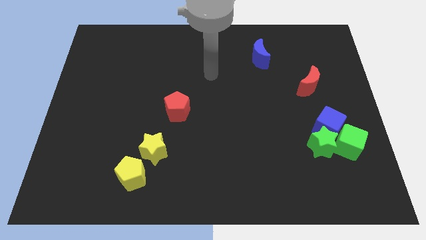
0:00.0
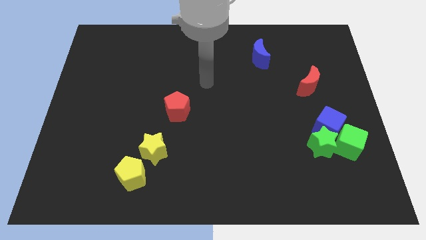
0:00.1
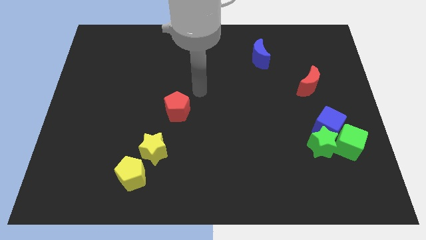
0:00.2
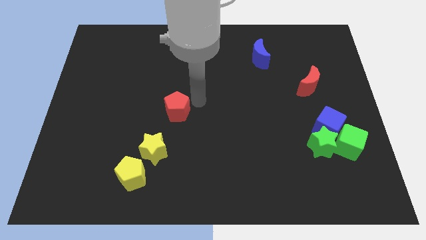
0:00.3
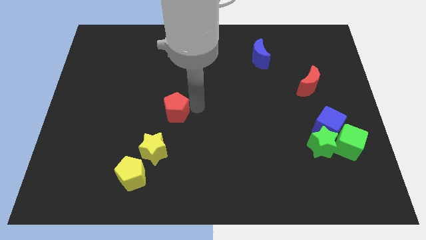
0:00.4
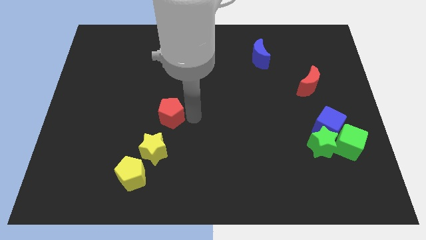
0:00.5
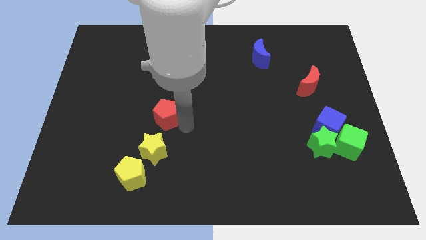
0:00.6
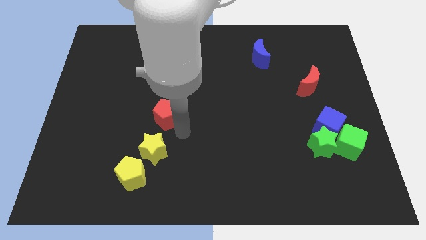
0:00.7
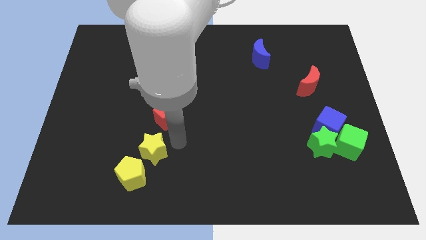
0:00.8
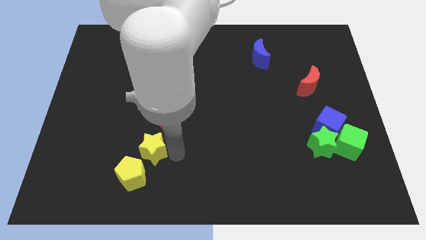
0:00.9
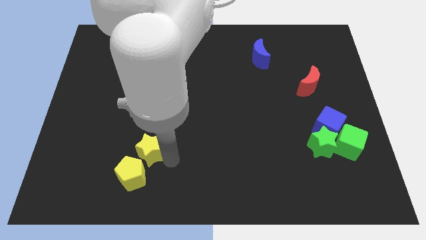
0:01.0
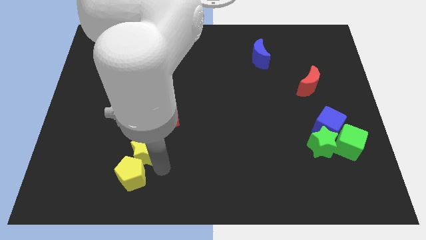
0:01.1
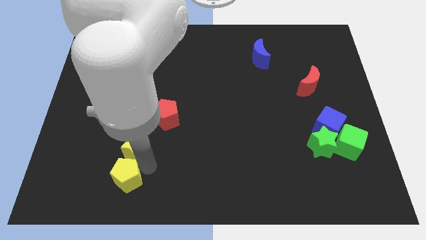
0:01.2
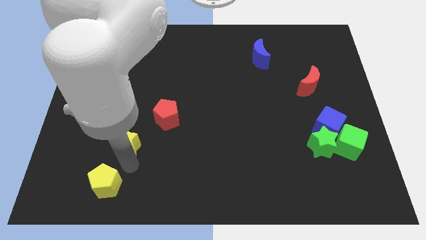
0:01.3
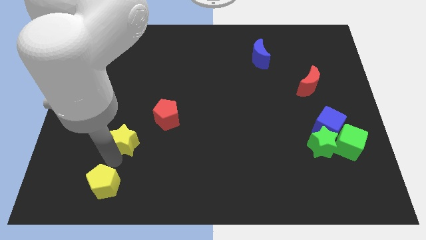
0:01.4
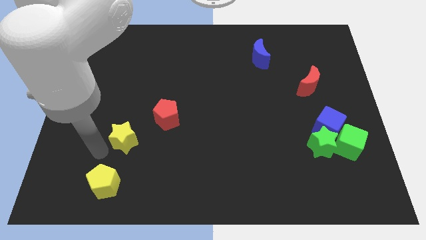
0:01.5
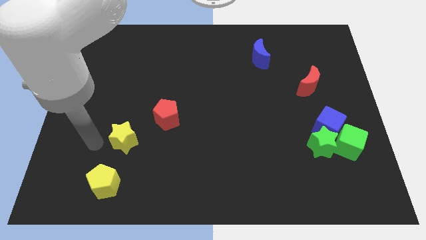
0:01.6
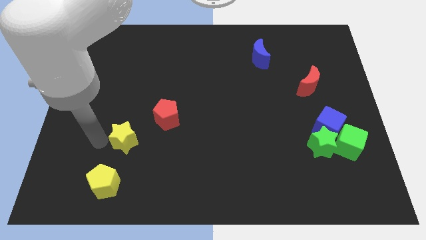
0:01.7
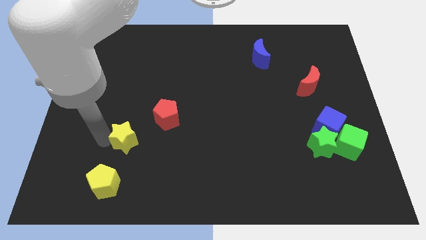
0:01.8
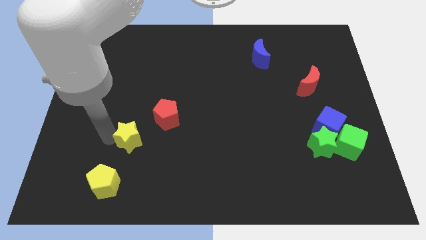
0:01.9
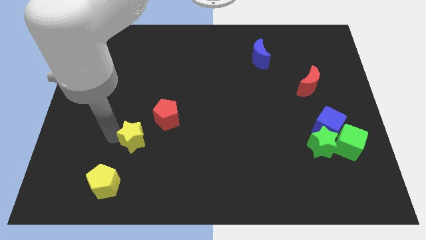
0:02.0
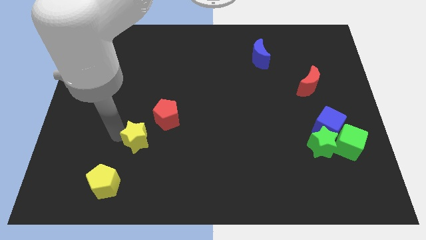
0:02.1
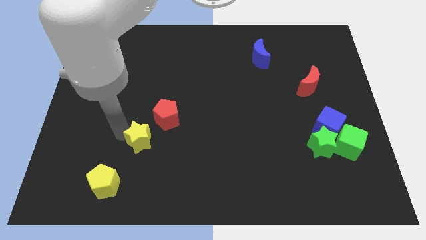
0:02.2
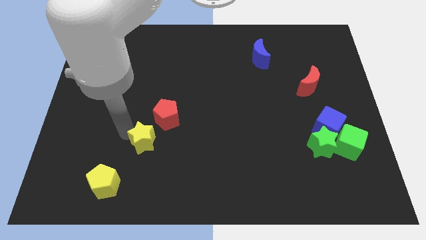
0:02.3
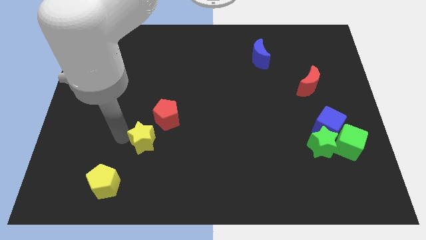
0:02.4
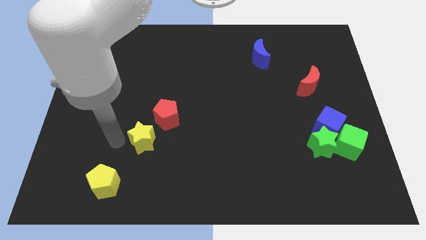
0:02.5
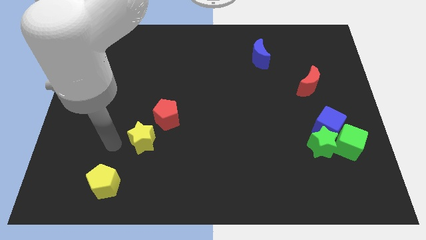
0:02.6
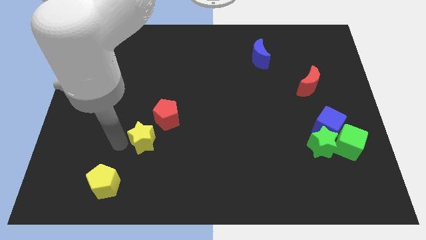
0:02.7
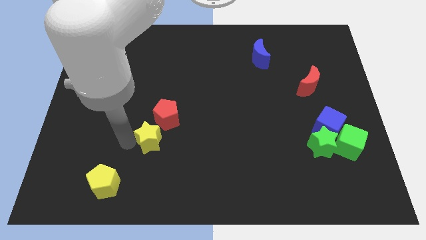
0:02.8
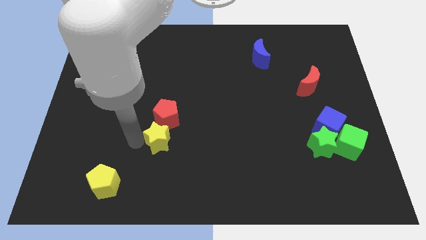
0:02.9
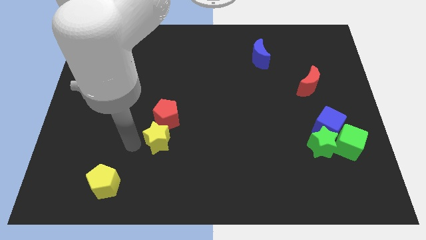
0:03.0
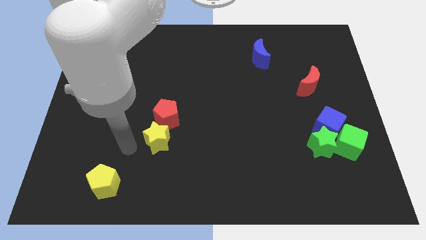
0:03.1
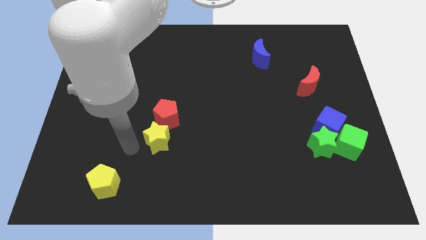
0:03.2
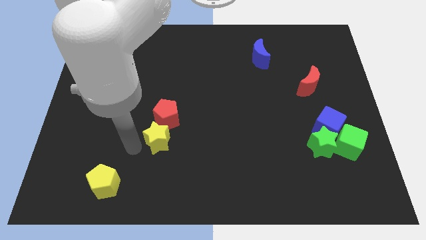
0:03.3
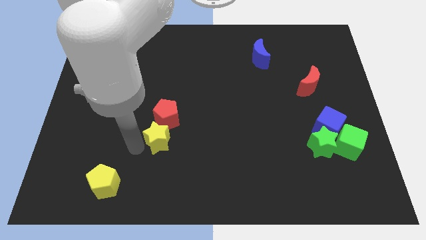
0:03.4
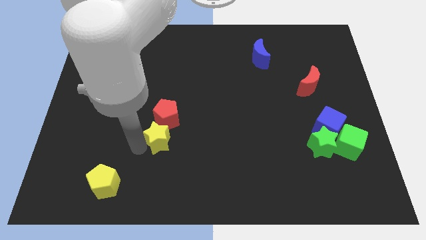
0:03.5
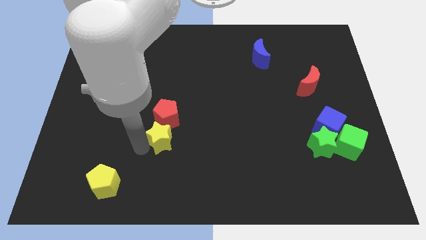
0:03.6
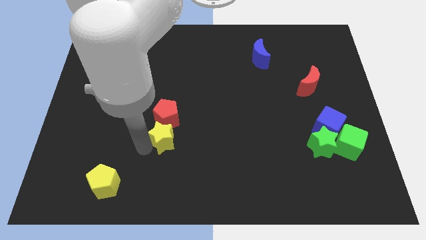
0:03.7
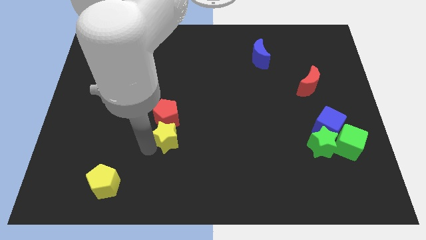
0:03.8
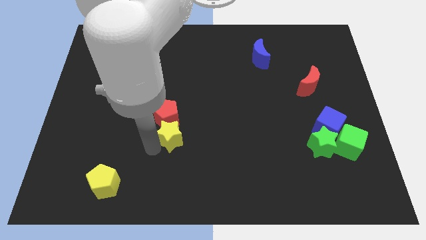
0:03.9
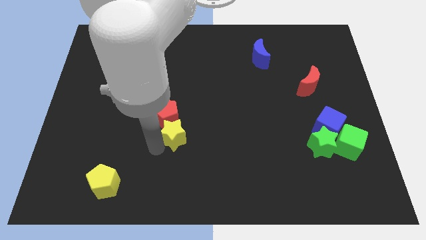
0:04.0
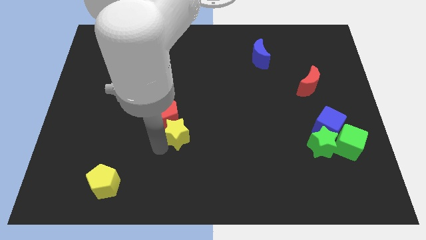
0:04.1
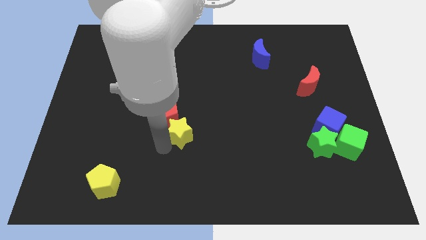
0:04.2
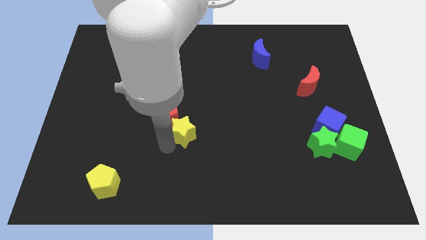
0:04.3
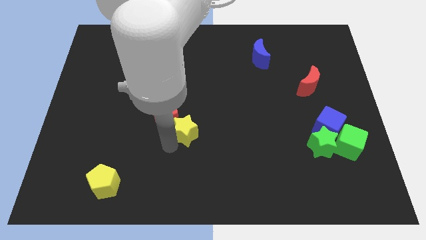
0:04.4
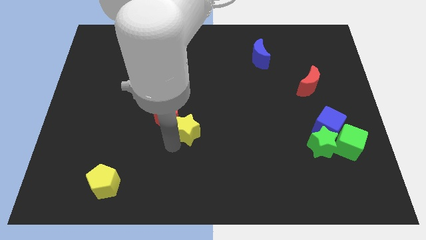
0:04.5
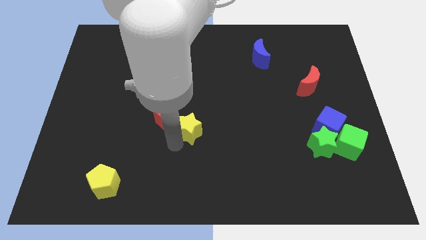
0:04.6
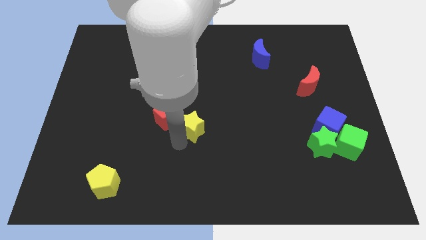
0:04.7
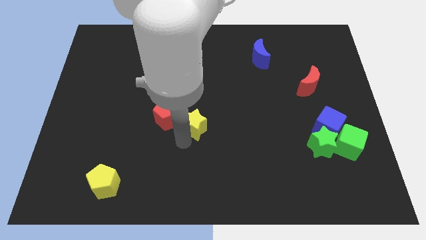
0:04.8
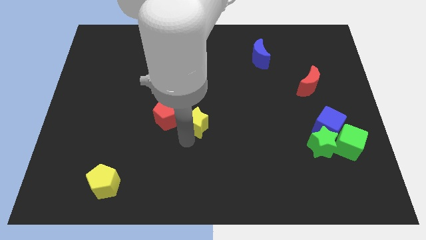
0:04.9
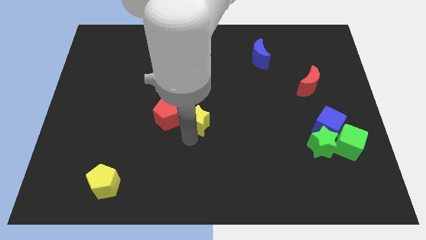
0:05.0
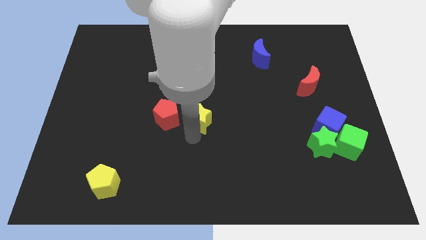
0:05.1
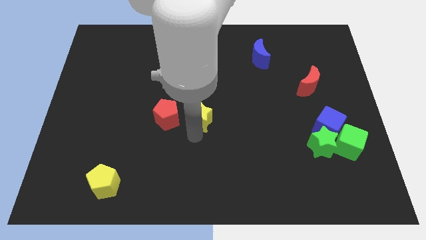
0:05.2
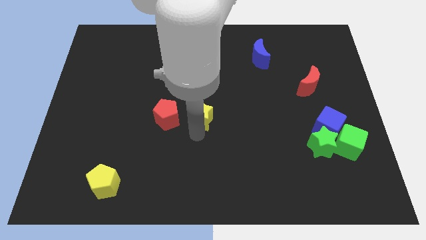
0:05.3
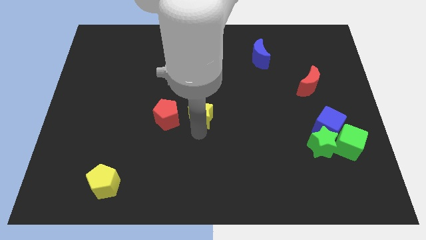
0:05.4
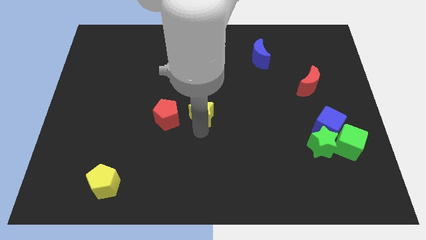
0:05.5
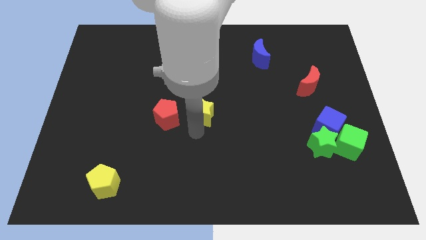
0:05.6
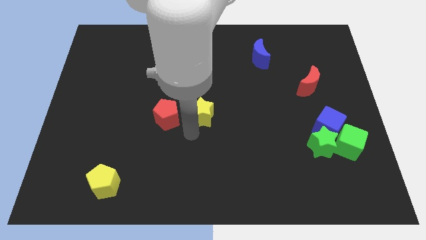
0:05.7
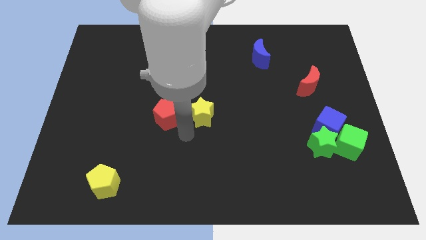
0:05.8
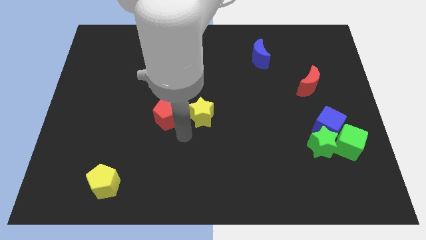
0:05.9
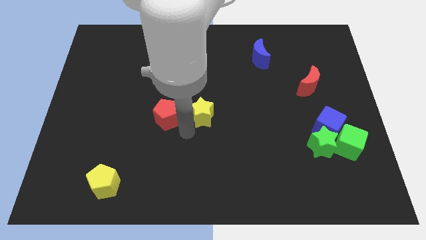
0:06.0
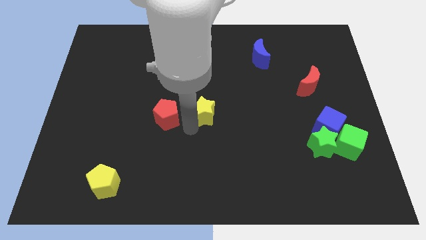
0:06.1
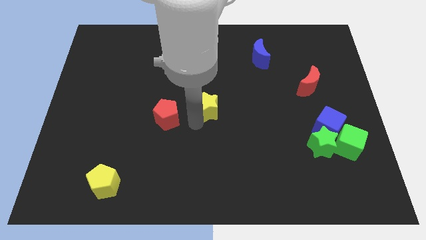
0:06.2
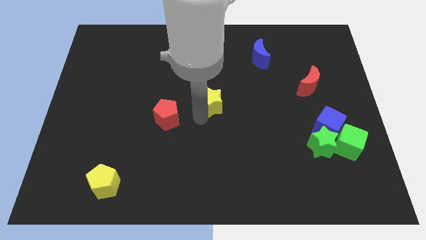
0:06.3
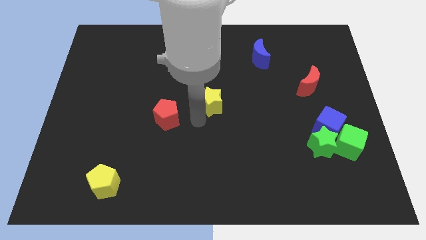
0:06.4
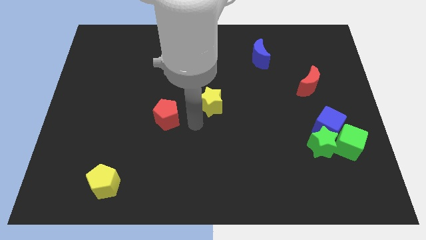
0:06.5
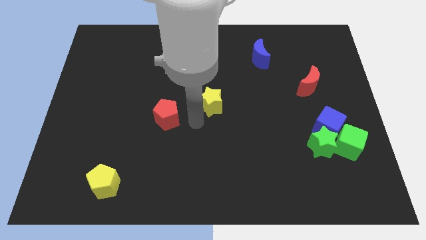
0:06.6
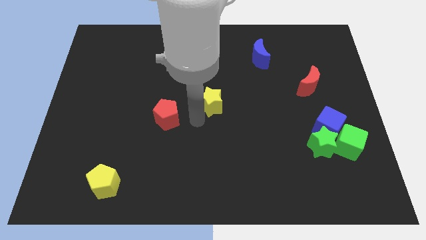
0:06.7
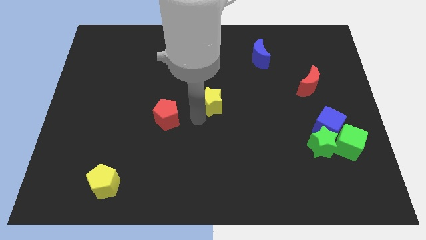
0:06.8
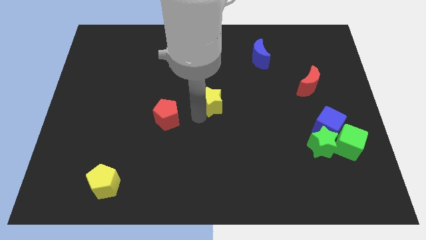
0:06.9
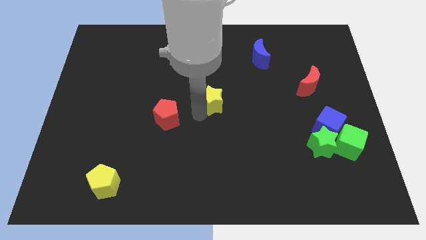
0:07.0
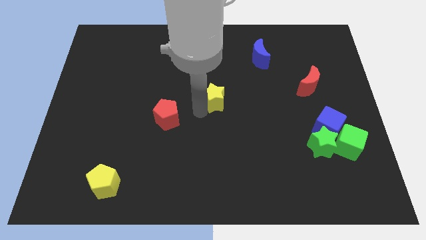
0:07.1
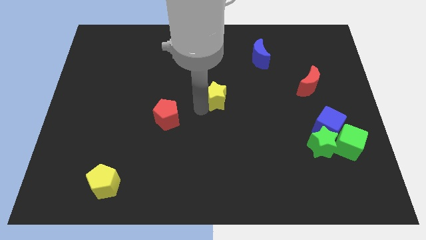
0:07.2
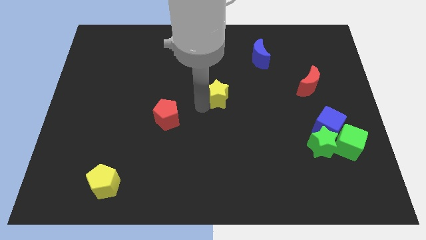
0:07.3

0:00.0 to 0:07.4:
move the yellow star up and right diagonally

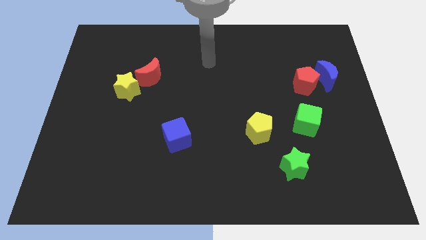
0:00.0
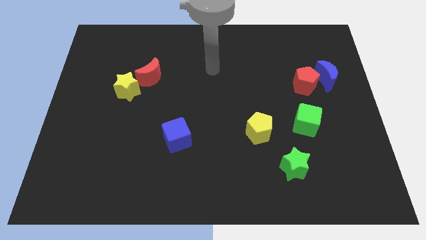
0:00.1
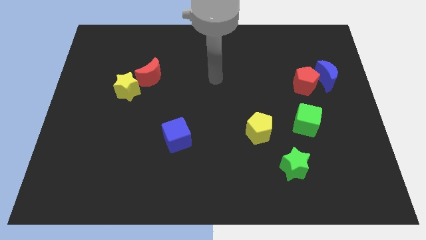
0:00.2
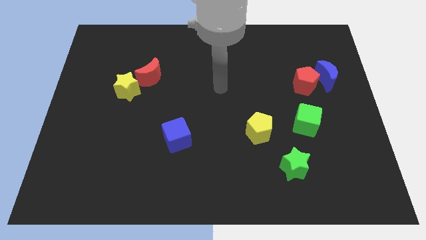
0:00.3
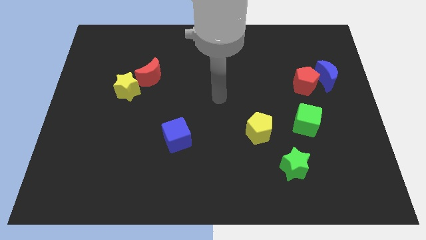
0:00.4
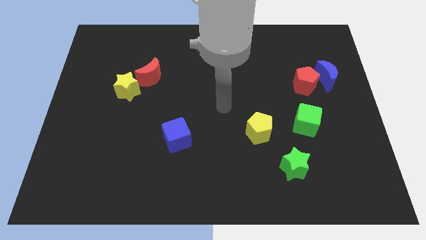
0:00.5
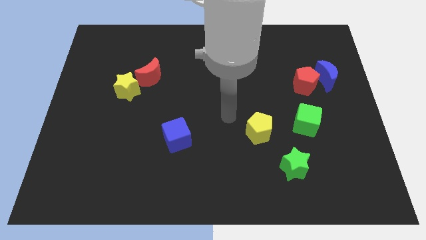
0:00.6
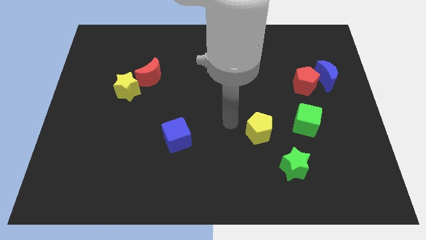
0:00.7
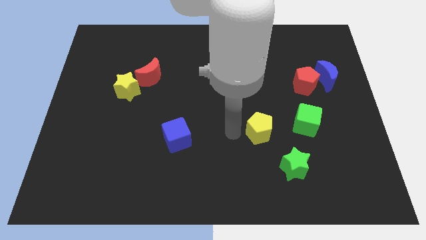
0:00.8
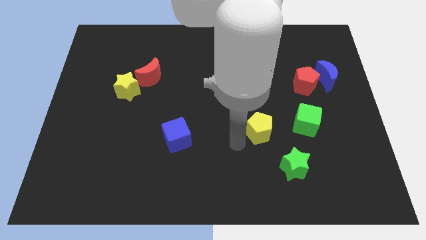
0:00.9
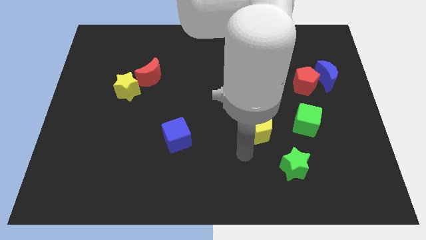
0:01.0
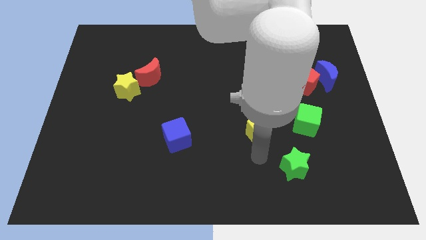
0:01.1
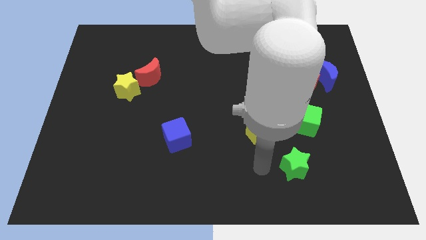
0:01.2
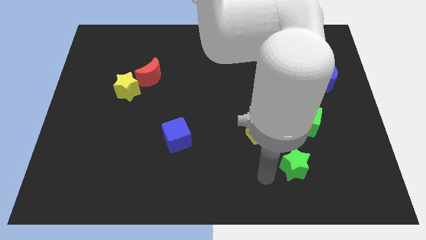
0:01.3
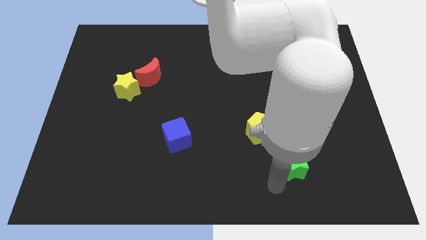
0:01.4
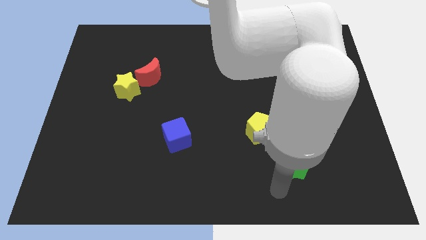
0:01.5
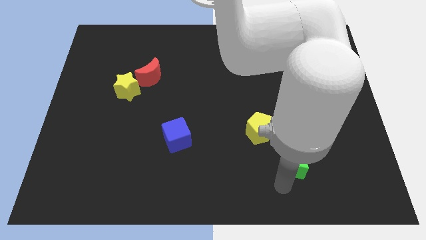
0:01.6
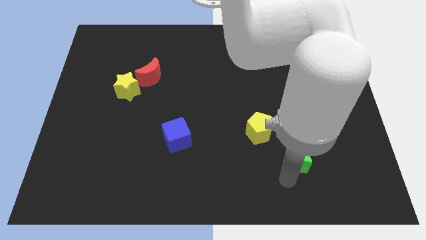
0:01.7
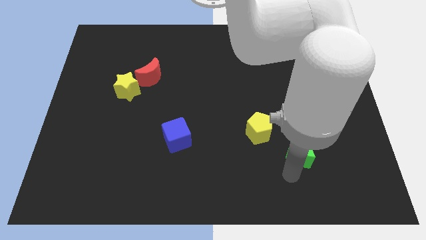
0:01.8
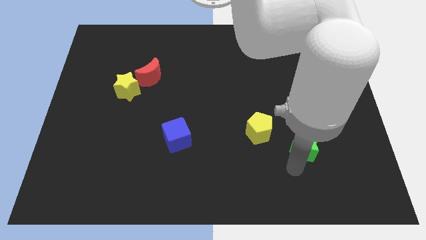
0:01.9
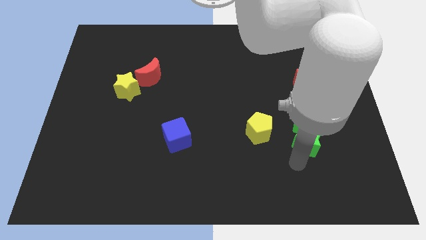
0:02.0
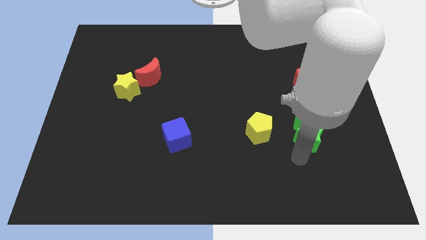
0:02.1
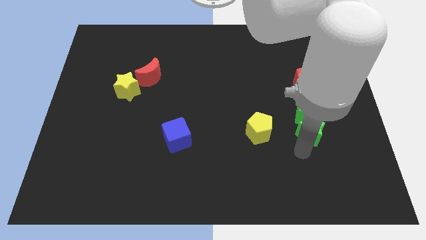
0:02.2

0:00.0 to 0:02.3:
push the green star a little bit upwards
